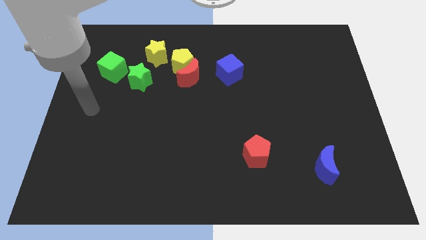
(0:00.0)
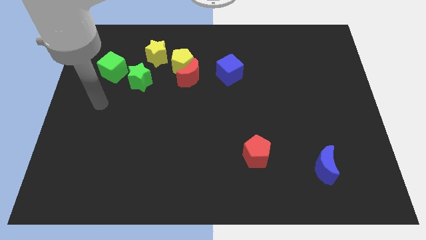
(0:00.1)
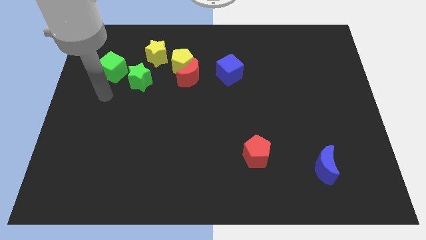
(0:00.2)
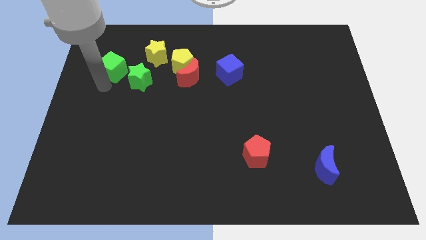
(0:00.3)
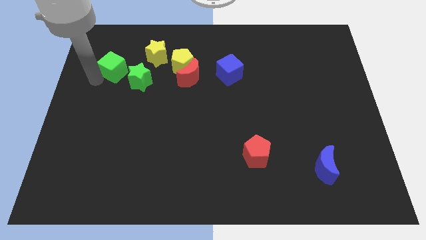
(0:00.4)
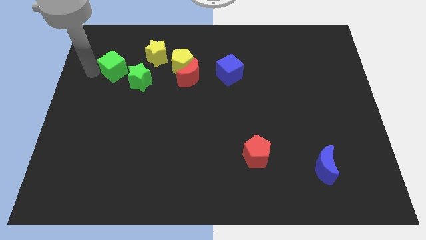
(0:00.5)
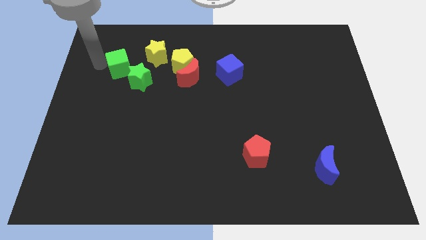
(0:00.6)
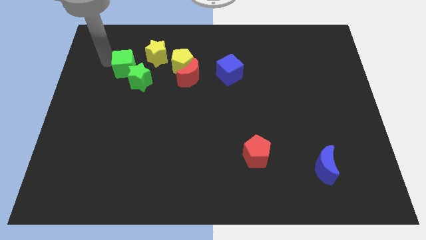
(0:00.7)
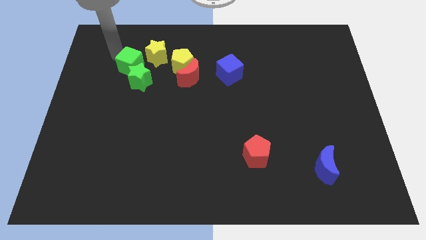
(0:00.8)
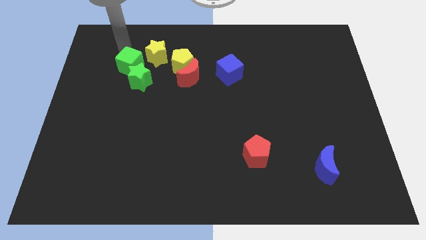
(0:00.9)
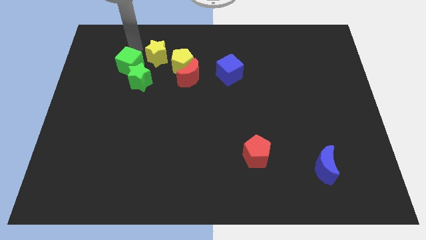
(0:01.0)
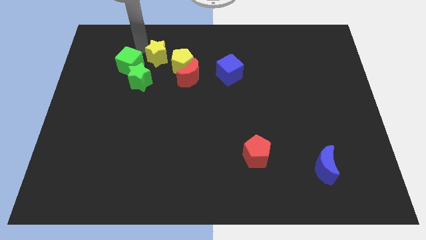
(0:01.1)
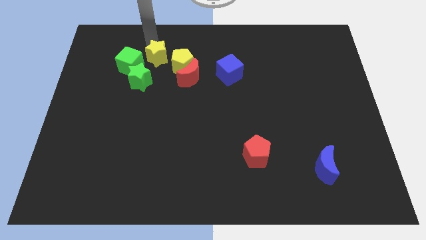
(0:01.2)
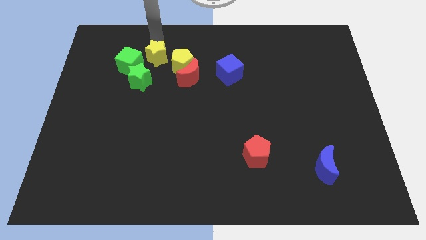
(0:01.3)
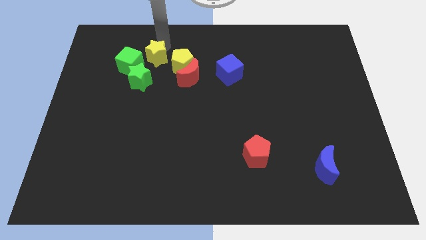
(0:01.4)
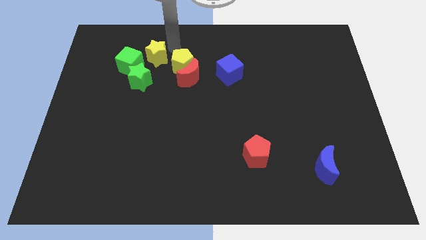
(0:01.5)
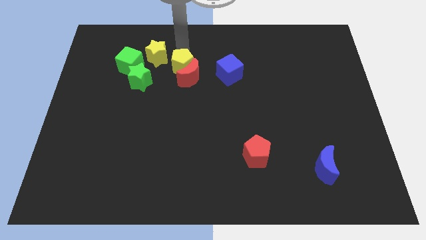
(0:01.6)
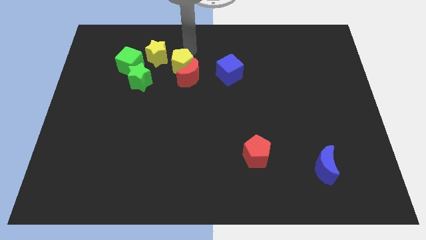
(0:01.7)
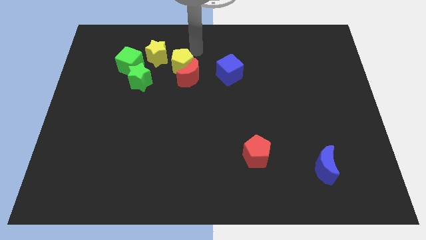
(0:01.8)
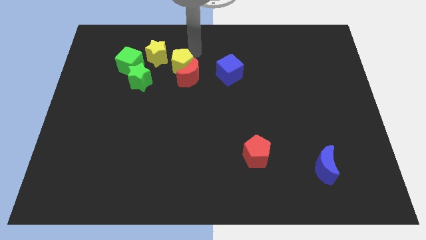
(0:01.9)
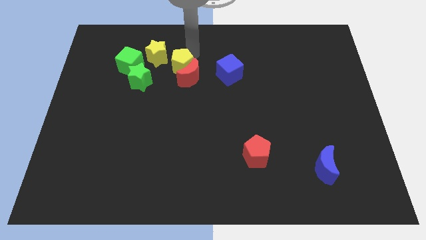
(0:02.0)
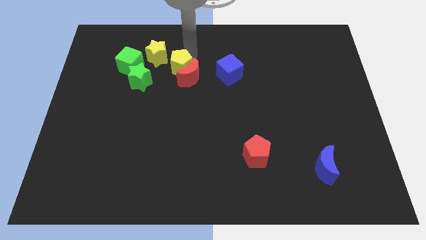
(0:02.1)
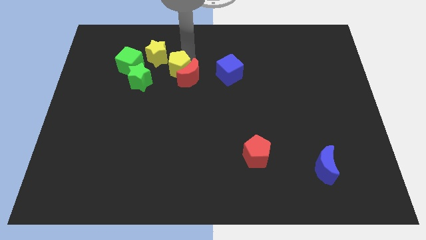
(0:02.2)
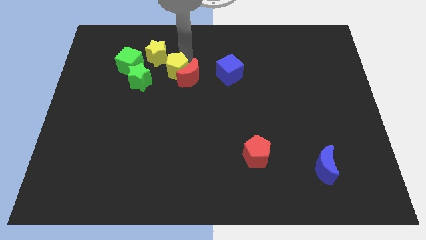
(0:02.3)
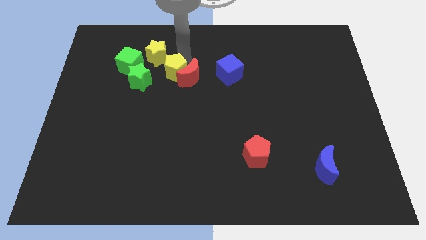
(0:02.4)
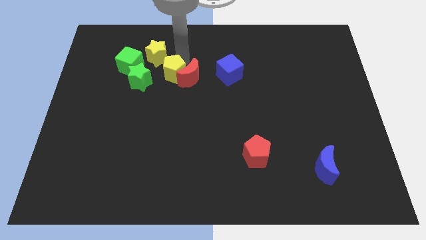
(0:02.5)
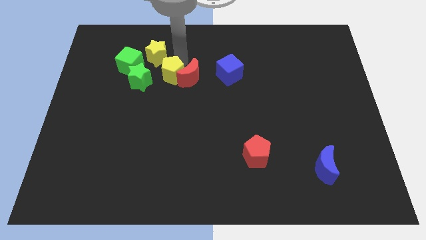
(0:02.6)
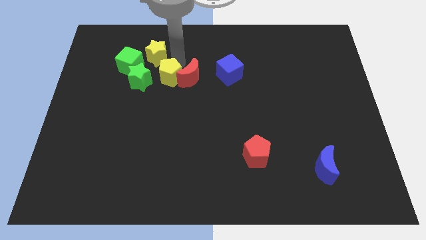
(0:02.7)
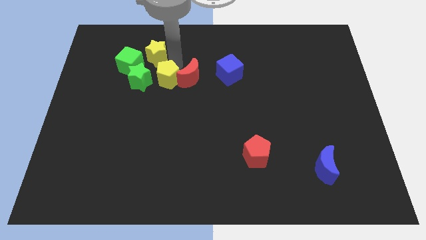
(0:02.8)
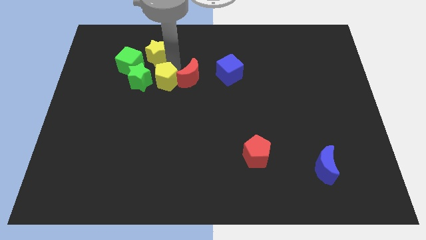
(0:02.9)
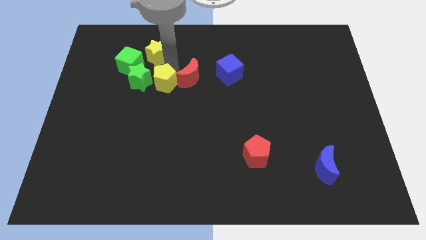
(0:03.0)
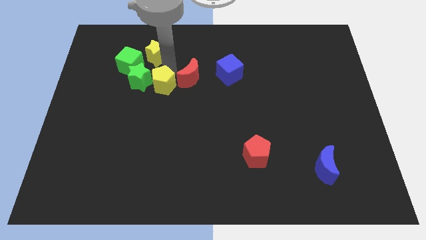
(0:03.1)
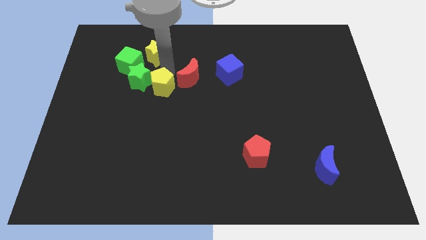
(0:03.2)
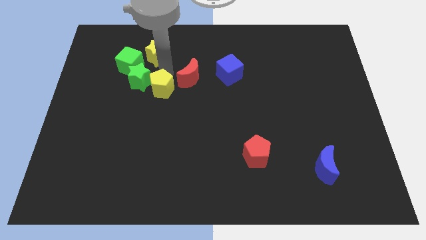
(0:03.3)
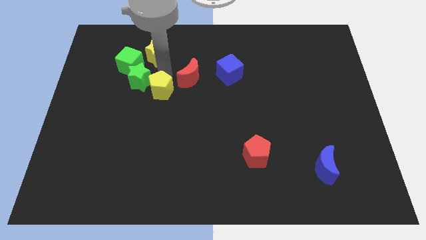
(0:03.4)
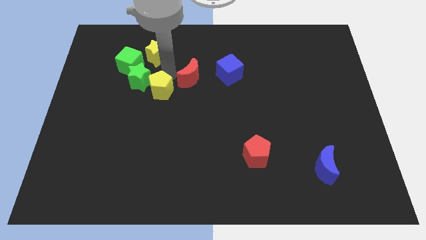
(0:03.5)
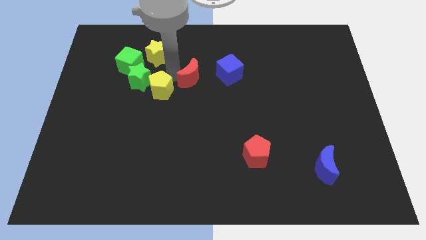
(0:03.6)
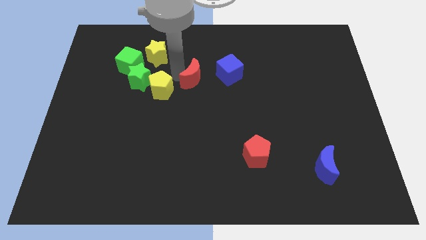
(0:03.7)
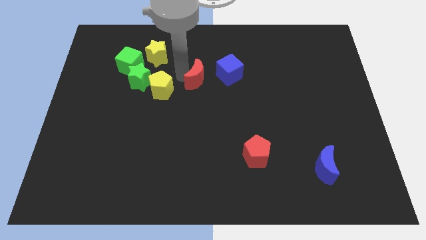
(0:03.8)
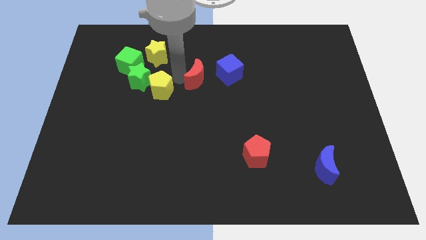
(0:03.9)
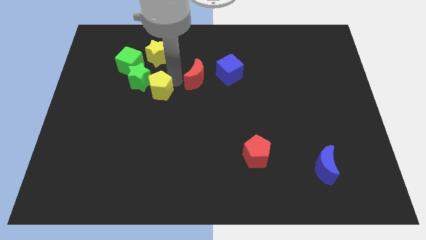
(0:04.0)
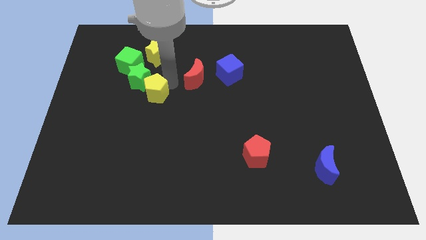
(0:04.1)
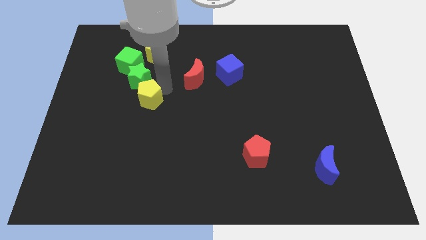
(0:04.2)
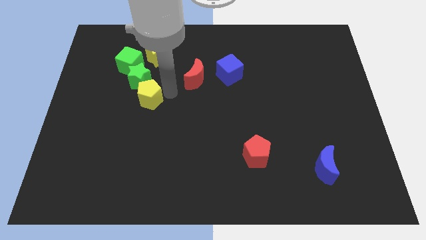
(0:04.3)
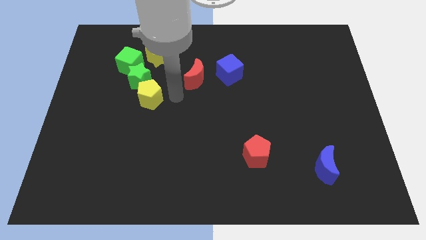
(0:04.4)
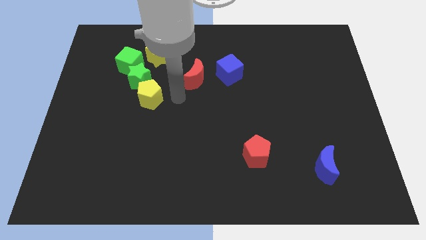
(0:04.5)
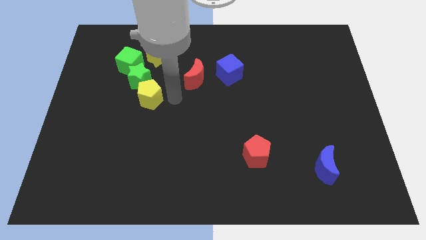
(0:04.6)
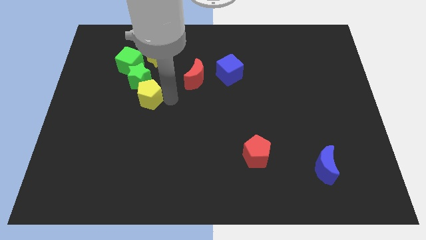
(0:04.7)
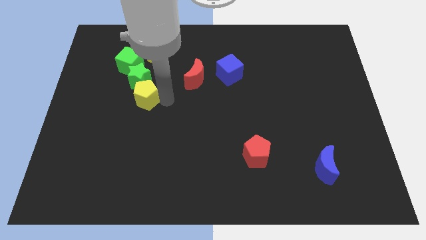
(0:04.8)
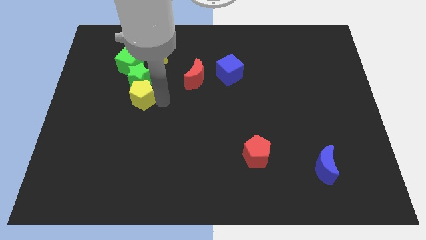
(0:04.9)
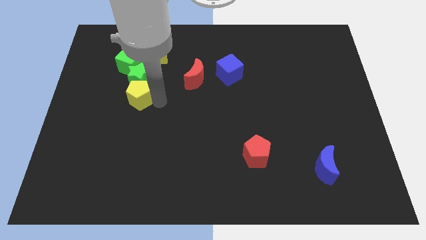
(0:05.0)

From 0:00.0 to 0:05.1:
move the yellow pentagon diagonally down and to the left of the green star

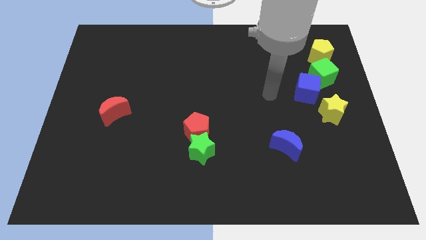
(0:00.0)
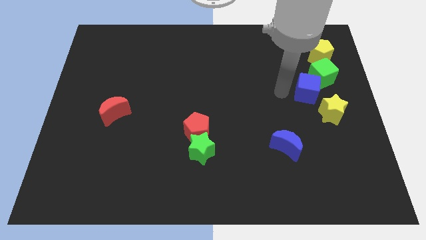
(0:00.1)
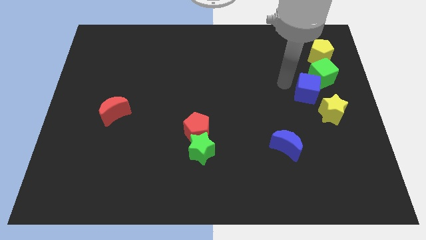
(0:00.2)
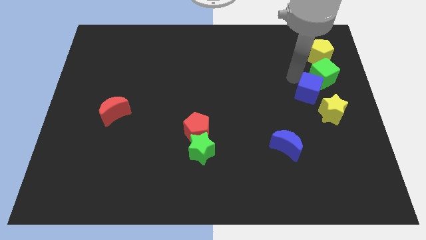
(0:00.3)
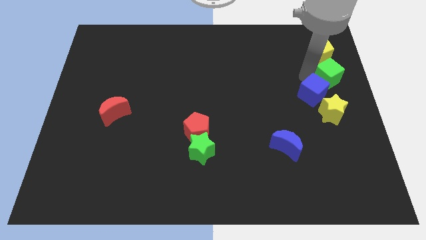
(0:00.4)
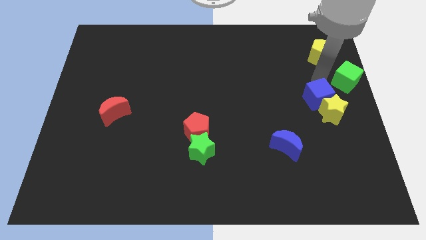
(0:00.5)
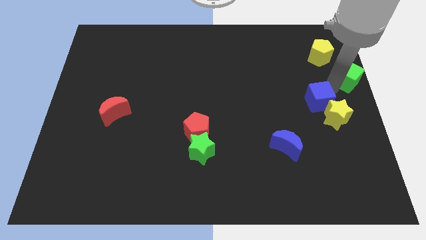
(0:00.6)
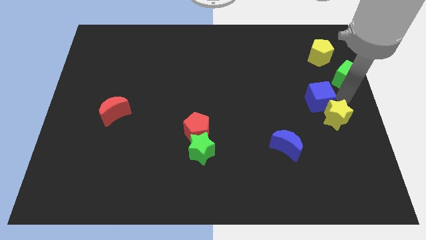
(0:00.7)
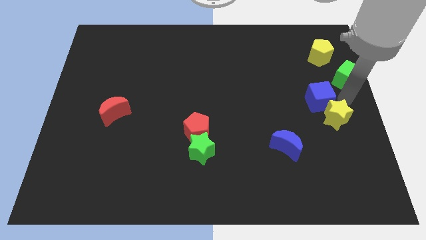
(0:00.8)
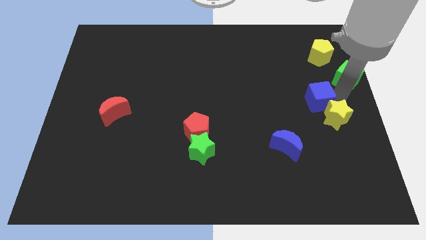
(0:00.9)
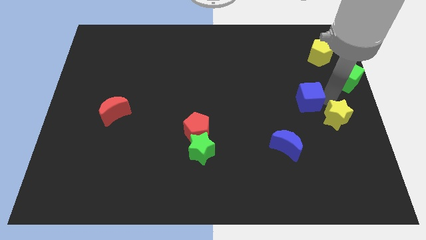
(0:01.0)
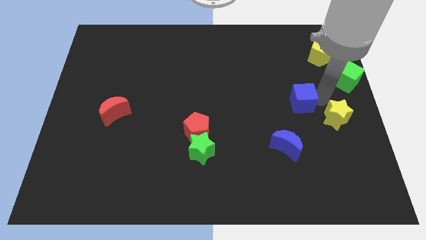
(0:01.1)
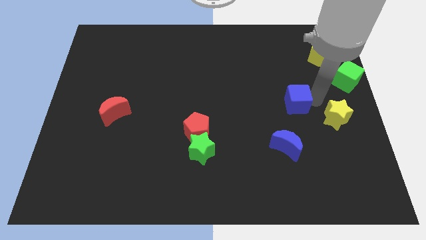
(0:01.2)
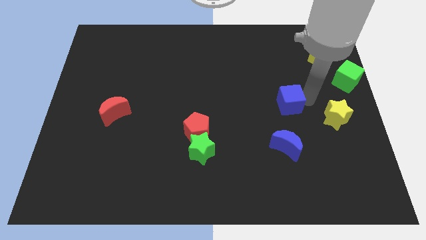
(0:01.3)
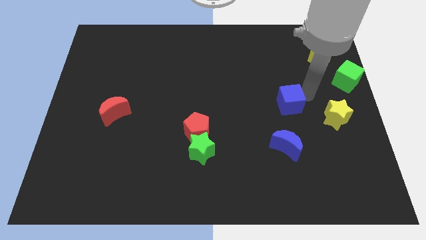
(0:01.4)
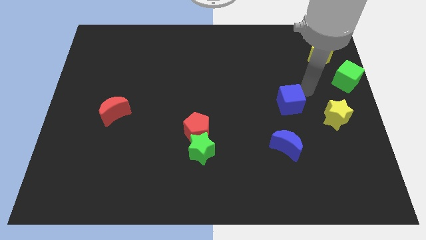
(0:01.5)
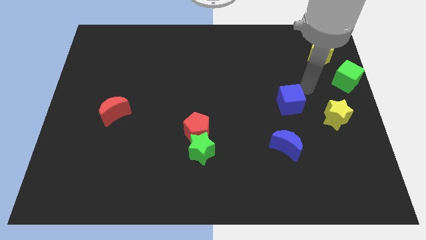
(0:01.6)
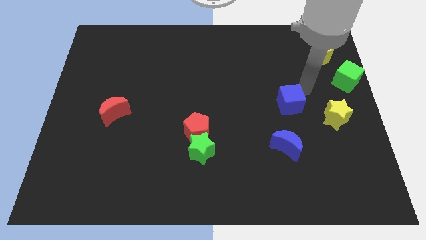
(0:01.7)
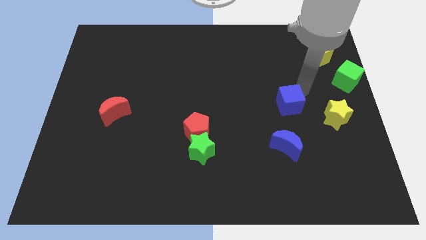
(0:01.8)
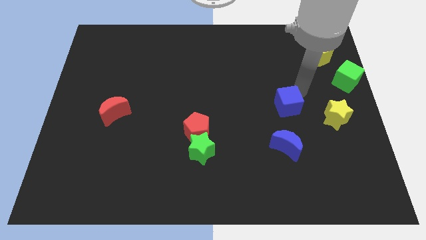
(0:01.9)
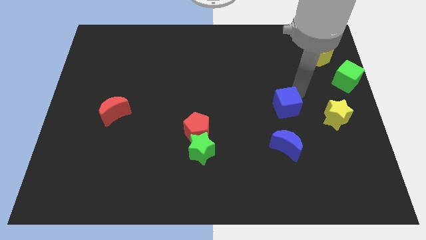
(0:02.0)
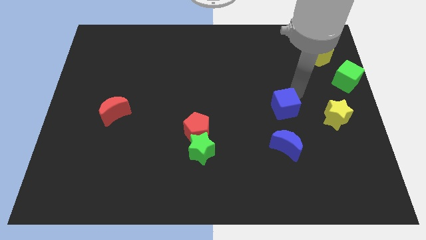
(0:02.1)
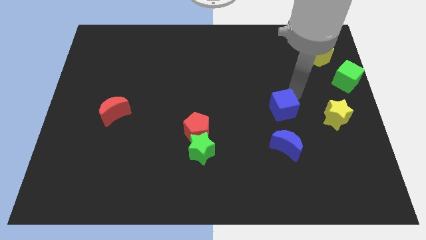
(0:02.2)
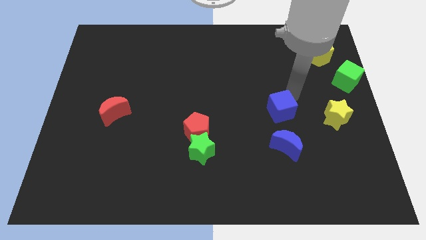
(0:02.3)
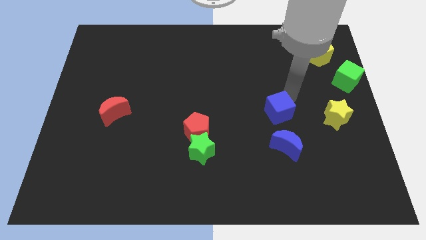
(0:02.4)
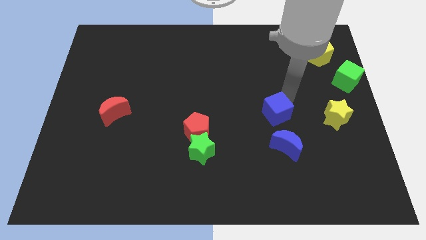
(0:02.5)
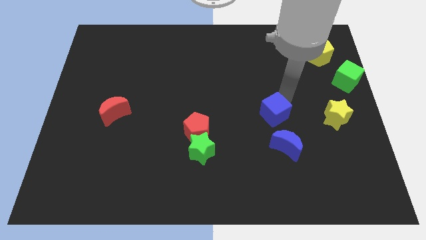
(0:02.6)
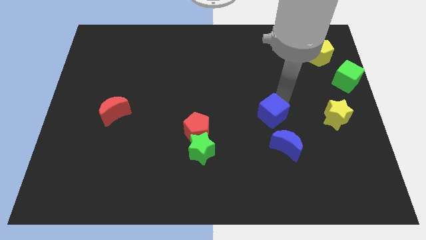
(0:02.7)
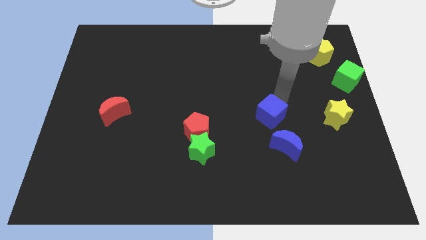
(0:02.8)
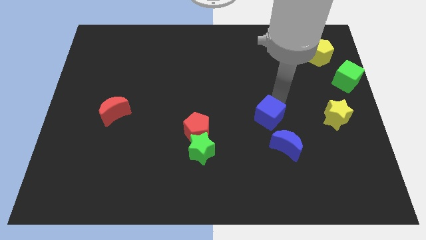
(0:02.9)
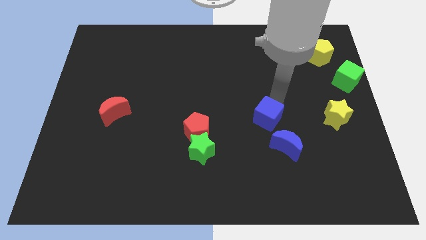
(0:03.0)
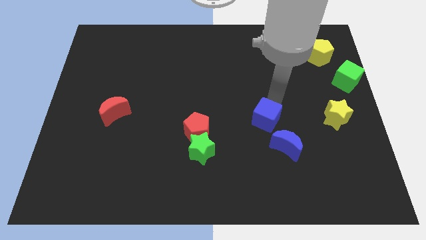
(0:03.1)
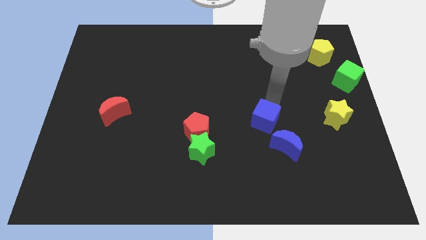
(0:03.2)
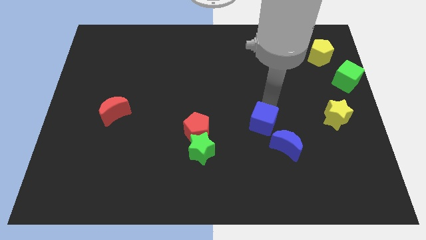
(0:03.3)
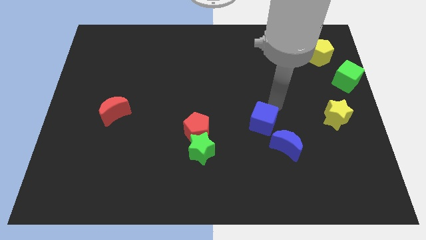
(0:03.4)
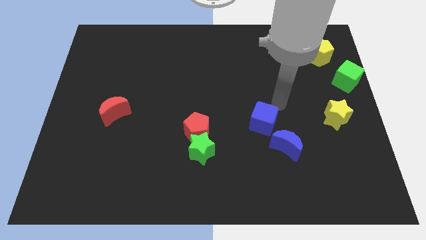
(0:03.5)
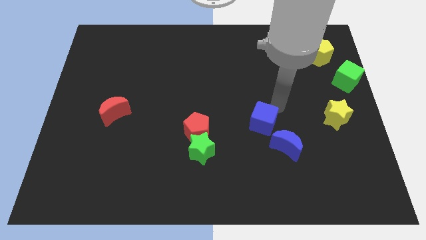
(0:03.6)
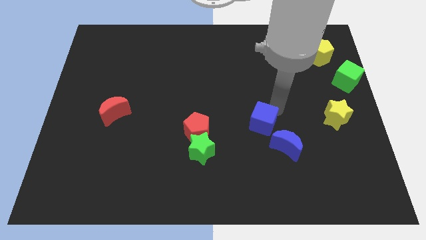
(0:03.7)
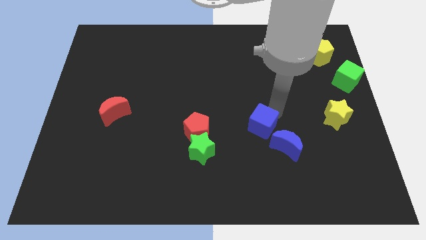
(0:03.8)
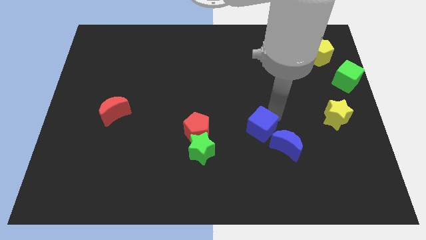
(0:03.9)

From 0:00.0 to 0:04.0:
push the blue cube left of the blue moon
